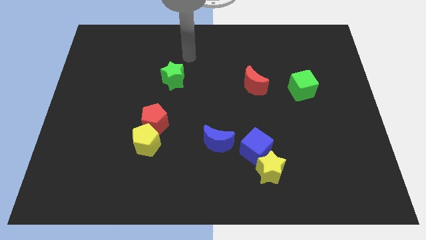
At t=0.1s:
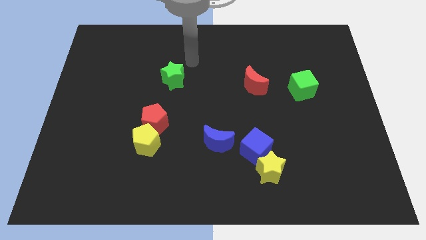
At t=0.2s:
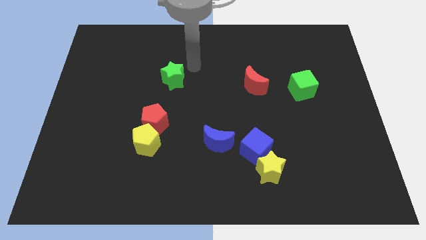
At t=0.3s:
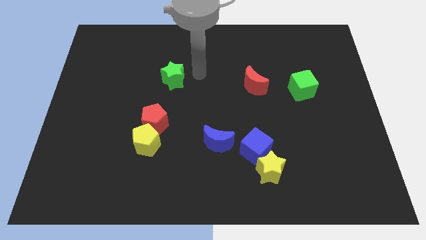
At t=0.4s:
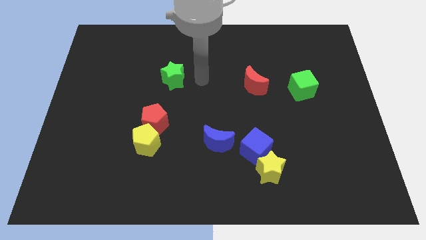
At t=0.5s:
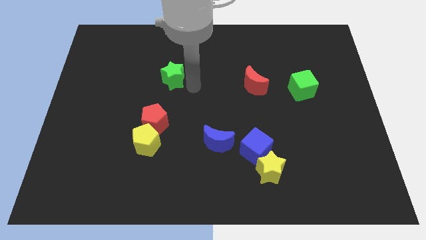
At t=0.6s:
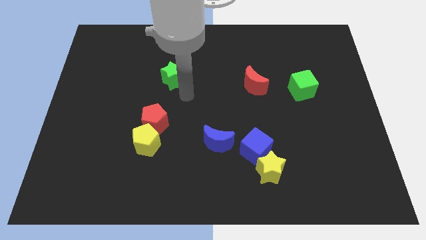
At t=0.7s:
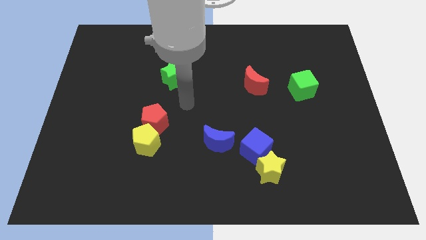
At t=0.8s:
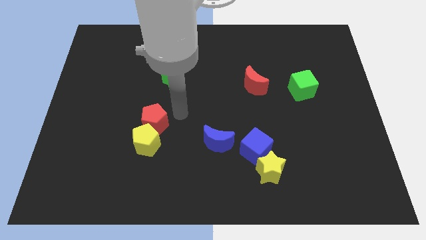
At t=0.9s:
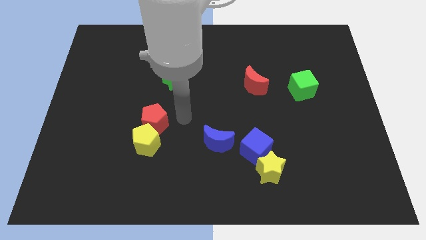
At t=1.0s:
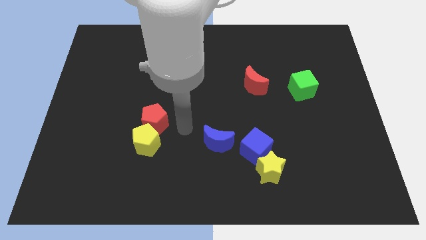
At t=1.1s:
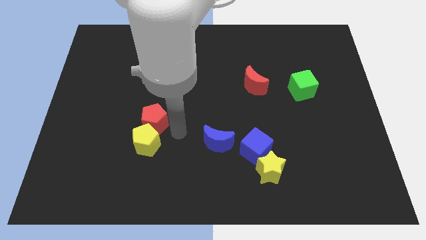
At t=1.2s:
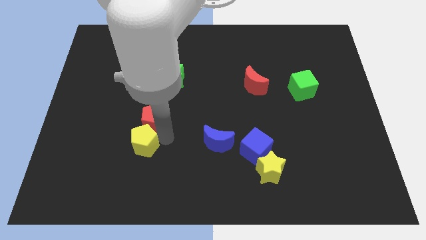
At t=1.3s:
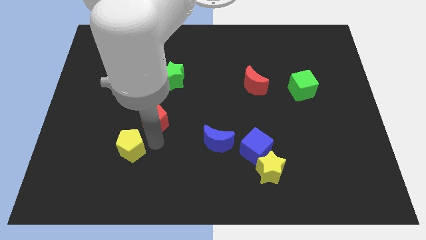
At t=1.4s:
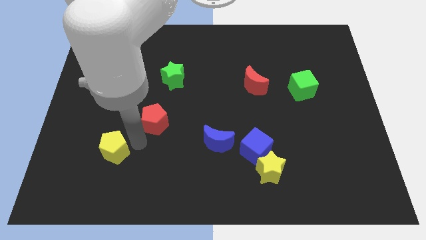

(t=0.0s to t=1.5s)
separate the red pentagon from the yellow pentagon

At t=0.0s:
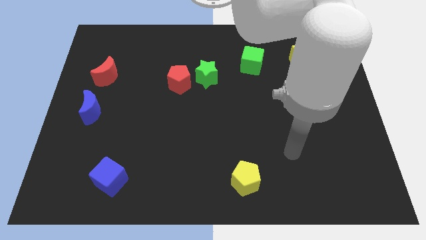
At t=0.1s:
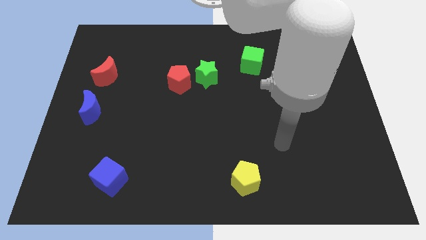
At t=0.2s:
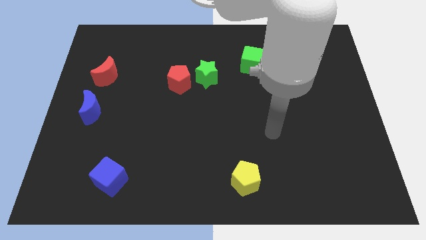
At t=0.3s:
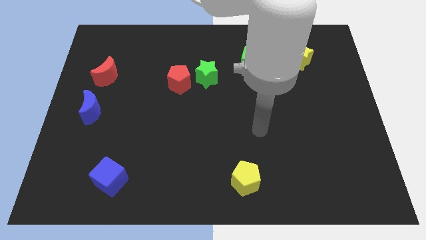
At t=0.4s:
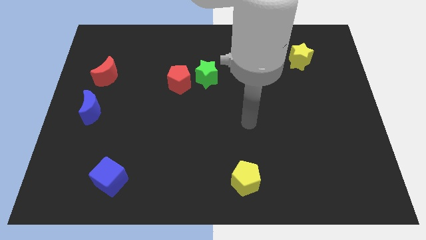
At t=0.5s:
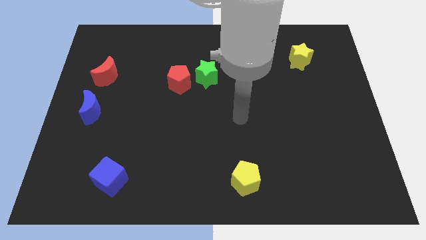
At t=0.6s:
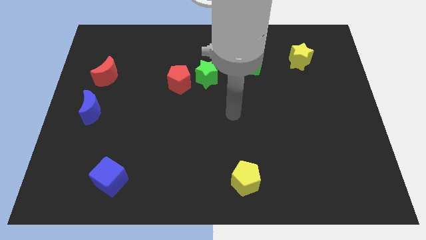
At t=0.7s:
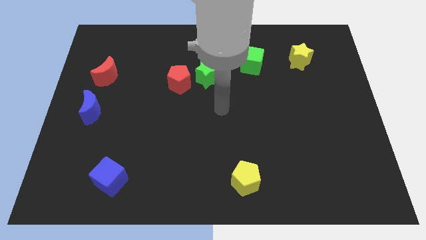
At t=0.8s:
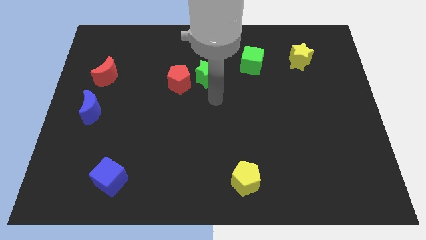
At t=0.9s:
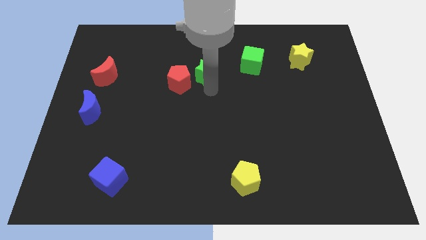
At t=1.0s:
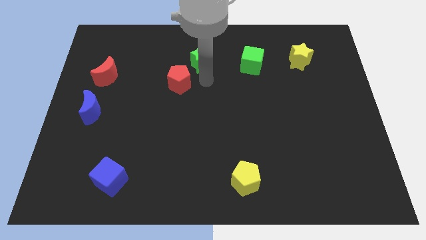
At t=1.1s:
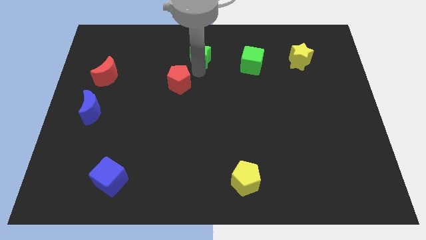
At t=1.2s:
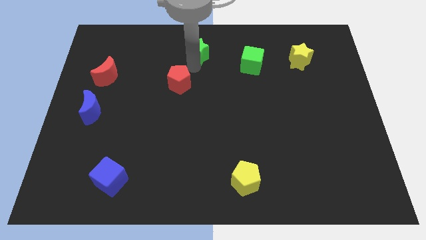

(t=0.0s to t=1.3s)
pull the red pentagon apart from the green star

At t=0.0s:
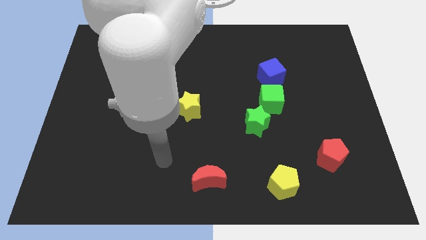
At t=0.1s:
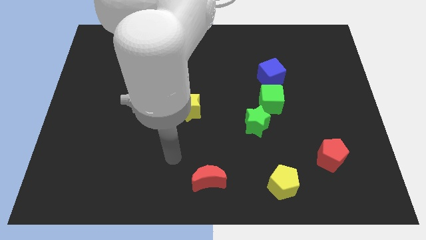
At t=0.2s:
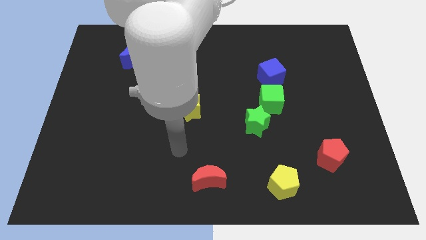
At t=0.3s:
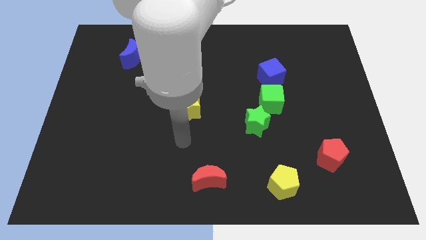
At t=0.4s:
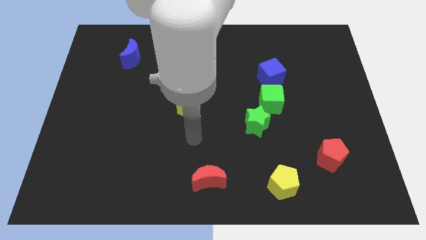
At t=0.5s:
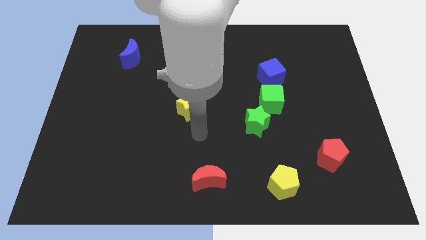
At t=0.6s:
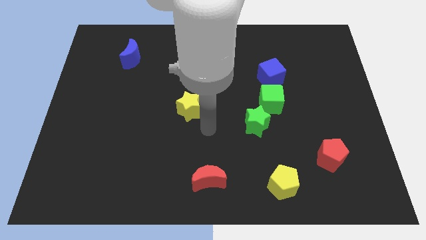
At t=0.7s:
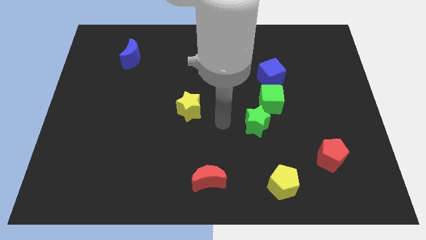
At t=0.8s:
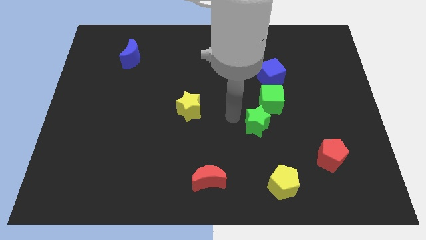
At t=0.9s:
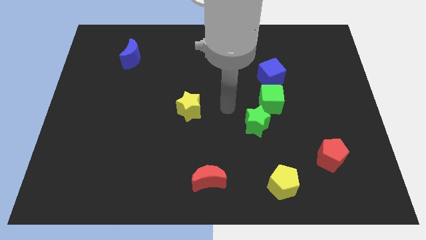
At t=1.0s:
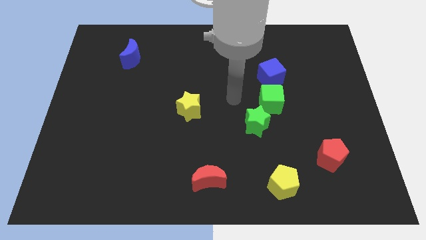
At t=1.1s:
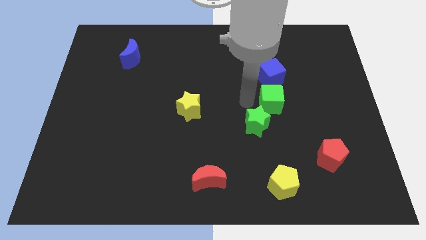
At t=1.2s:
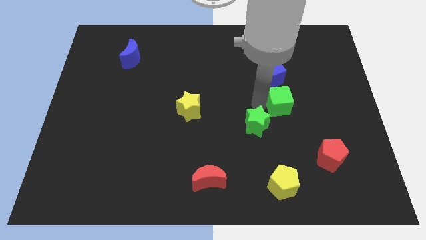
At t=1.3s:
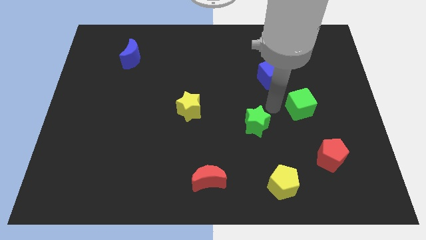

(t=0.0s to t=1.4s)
pull the green star apart from the green cube

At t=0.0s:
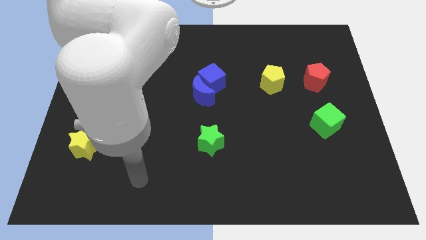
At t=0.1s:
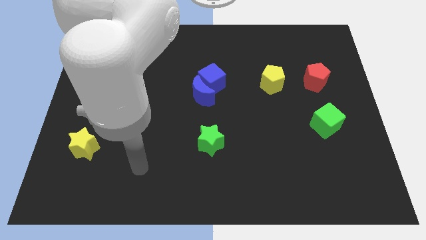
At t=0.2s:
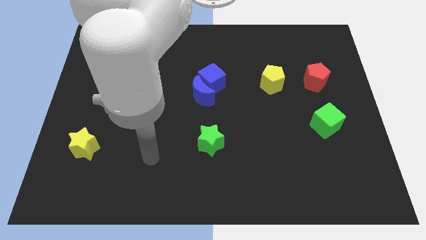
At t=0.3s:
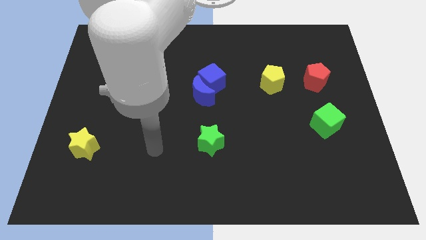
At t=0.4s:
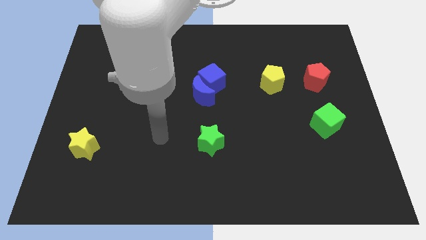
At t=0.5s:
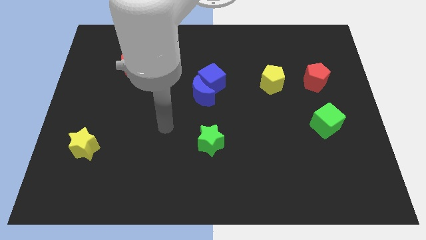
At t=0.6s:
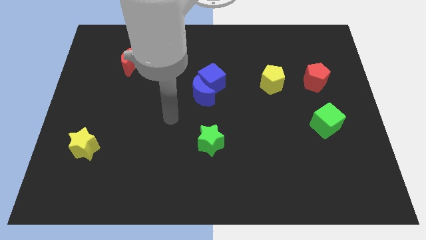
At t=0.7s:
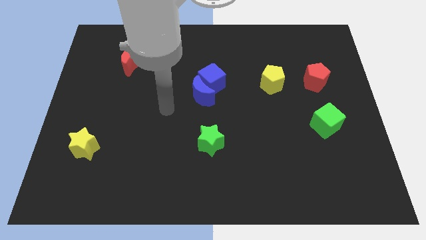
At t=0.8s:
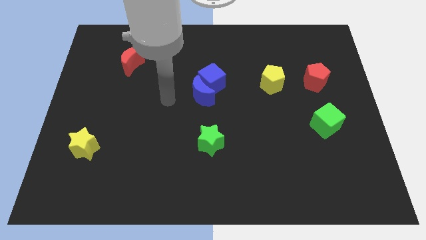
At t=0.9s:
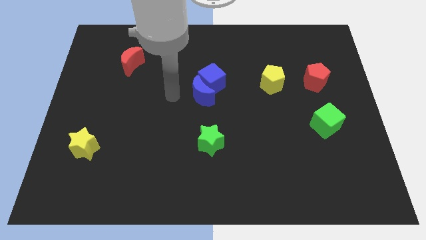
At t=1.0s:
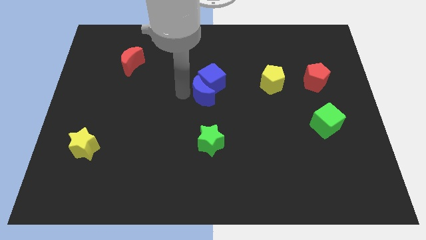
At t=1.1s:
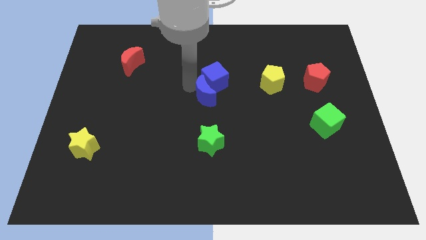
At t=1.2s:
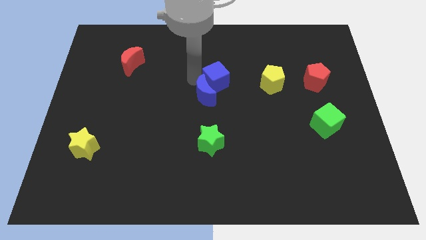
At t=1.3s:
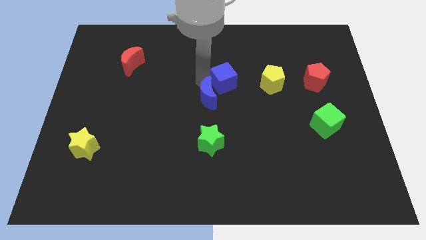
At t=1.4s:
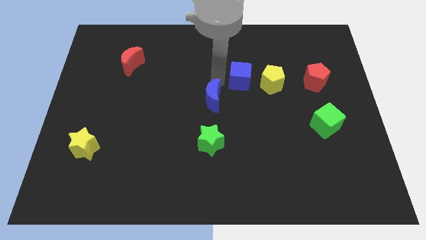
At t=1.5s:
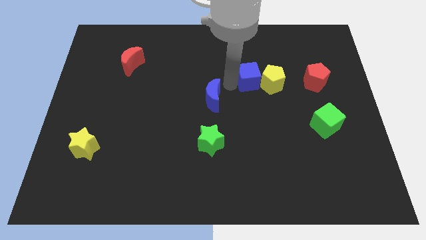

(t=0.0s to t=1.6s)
move the blue moon away from the blue cube

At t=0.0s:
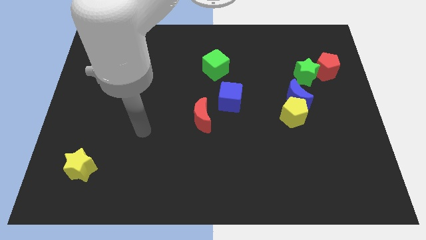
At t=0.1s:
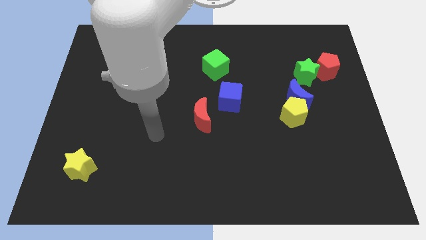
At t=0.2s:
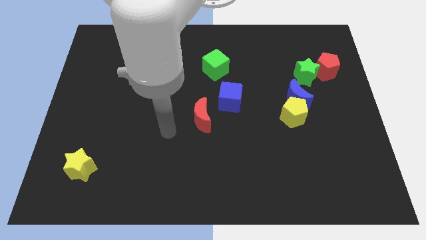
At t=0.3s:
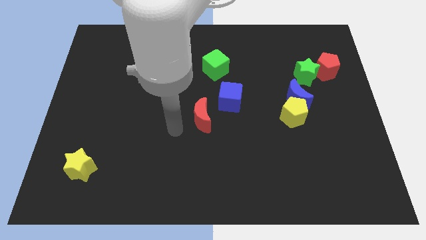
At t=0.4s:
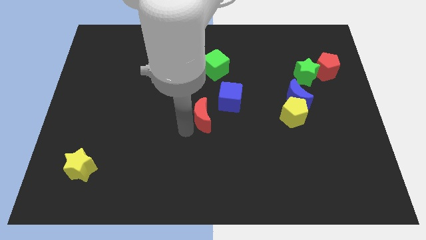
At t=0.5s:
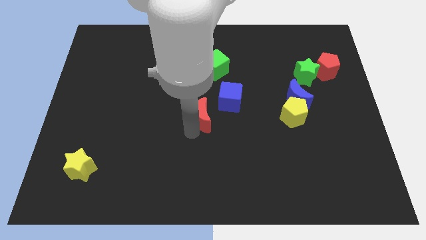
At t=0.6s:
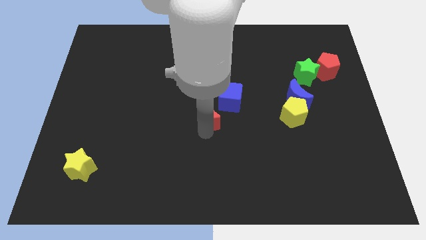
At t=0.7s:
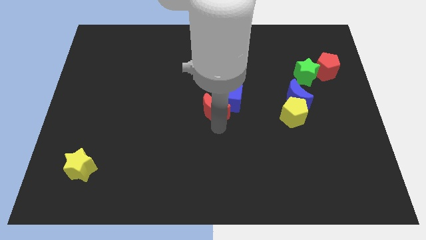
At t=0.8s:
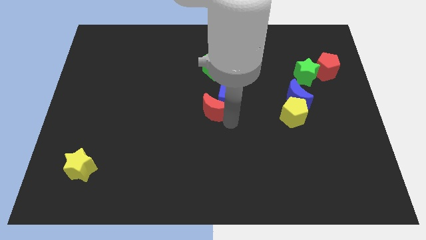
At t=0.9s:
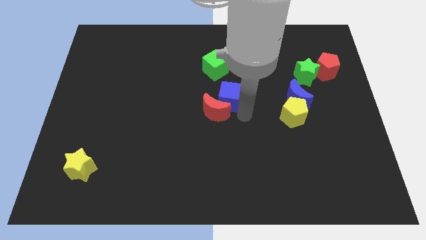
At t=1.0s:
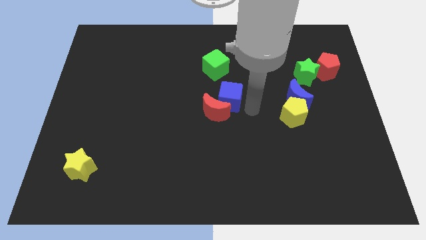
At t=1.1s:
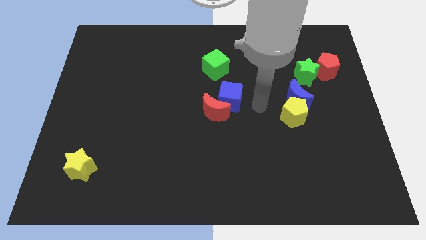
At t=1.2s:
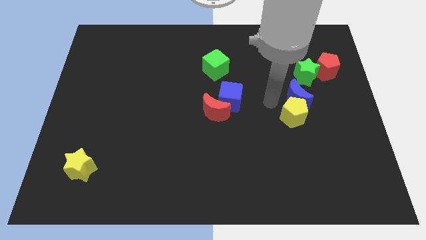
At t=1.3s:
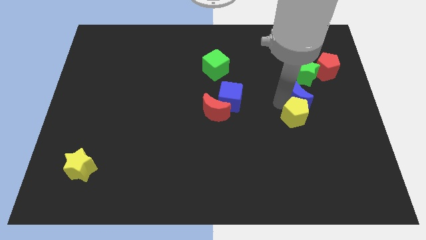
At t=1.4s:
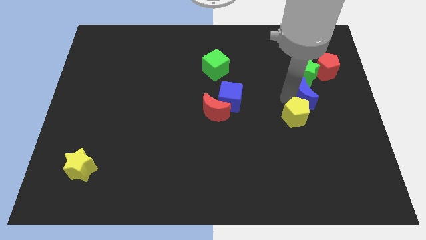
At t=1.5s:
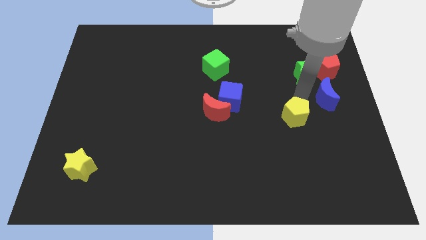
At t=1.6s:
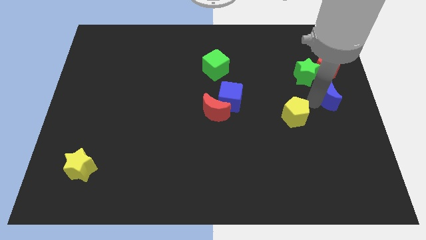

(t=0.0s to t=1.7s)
separate the yellow pentagon from the blue moon

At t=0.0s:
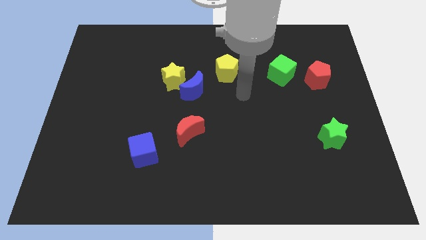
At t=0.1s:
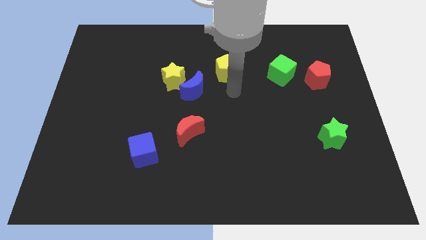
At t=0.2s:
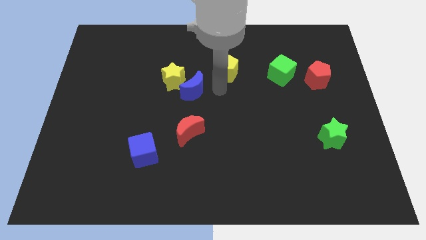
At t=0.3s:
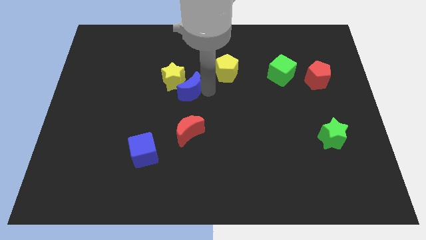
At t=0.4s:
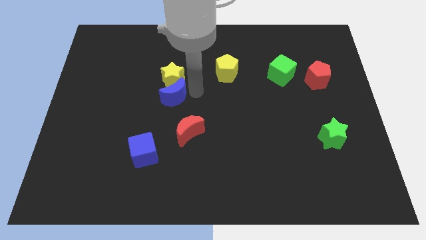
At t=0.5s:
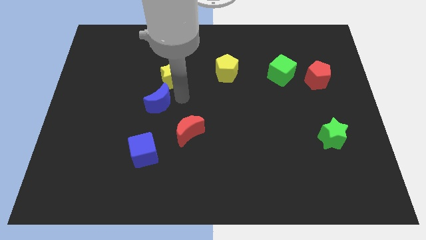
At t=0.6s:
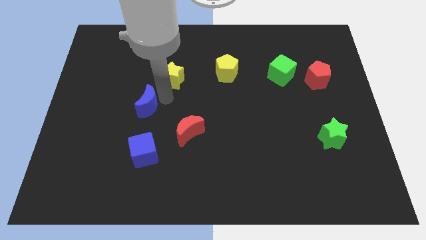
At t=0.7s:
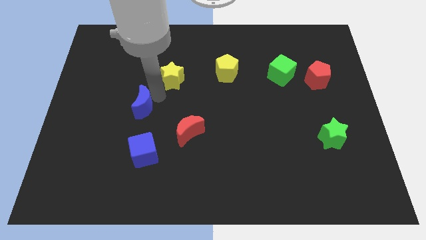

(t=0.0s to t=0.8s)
separate the yellow star from the blue moon

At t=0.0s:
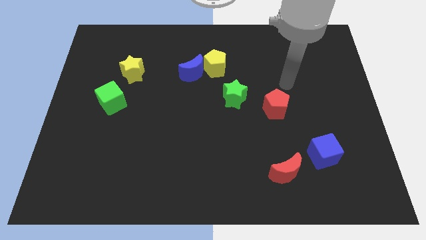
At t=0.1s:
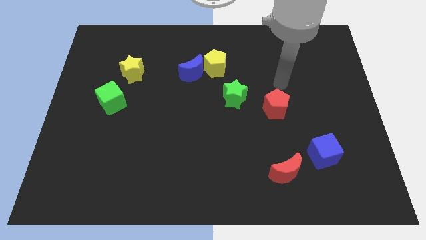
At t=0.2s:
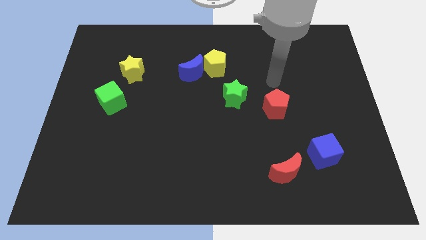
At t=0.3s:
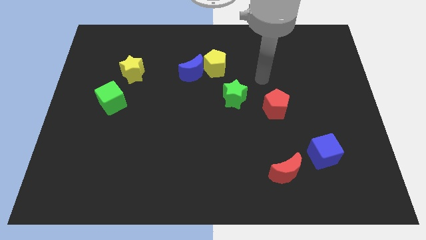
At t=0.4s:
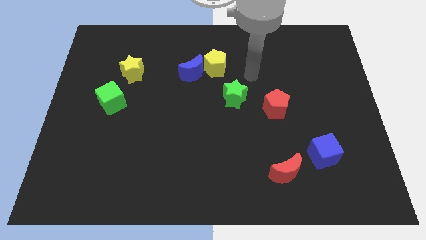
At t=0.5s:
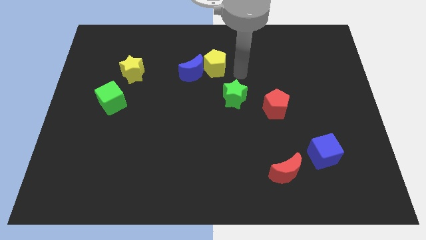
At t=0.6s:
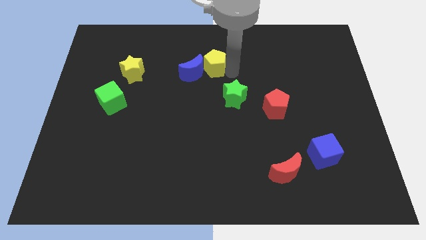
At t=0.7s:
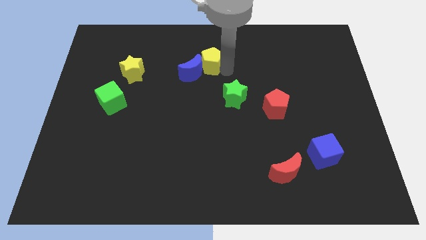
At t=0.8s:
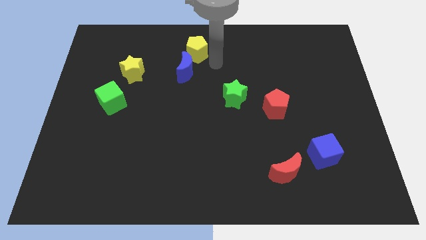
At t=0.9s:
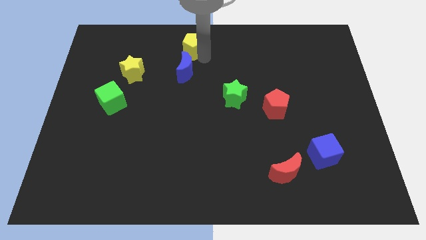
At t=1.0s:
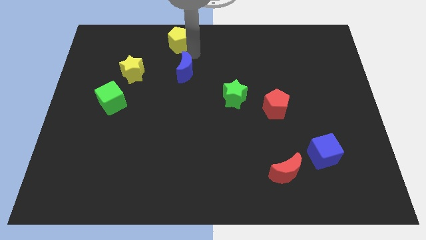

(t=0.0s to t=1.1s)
move the blue moon away from the yellow pentagon
